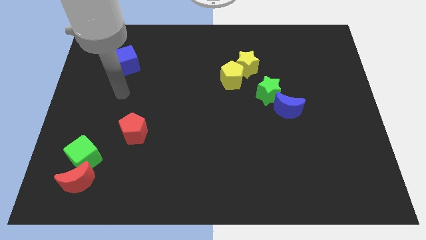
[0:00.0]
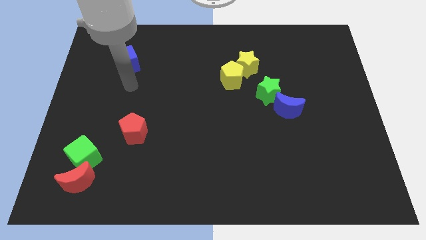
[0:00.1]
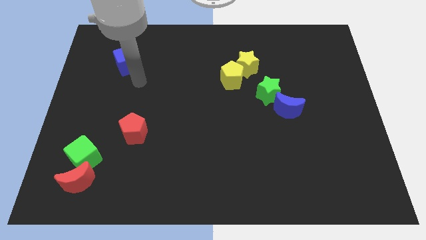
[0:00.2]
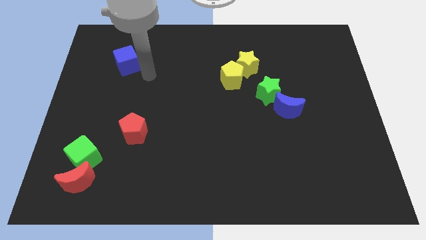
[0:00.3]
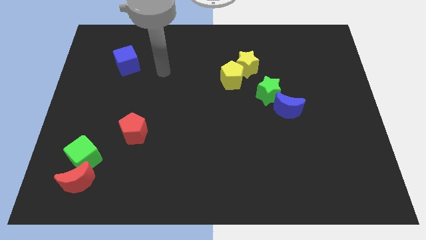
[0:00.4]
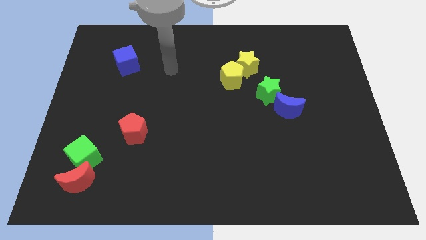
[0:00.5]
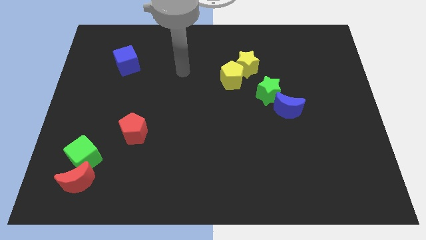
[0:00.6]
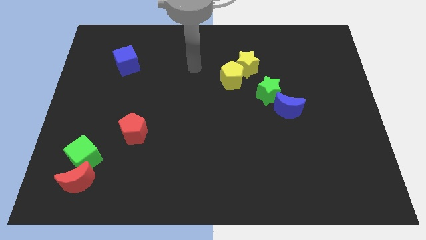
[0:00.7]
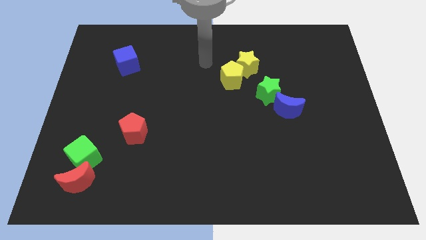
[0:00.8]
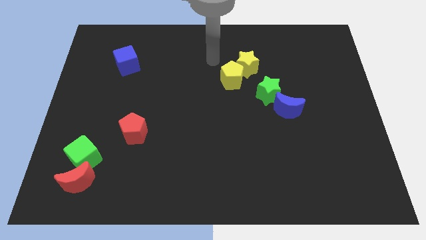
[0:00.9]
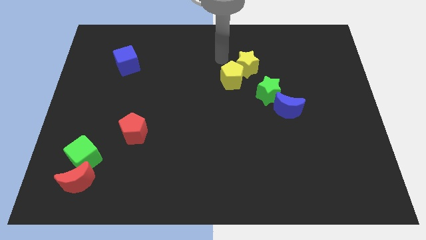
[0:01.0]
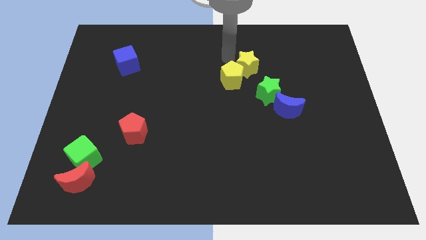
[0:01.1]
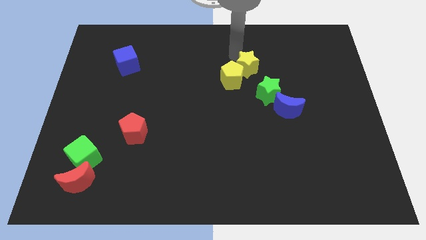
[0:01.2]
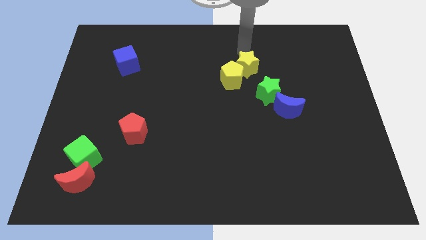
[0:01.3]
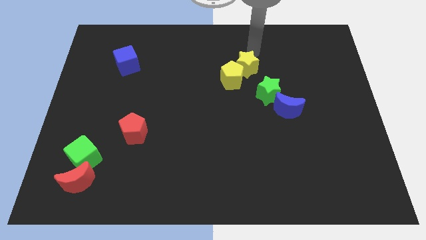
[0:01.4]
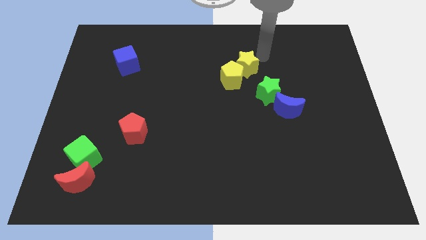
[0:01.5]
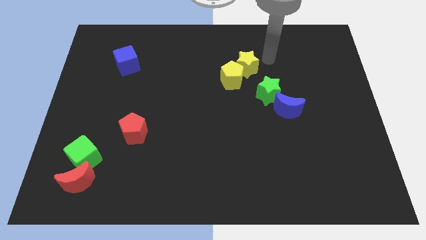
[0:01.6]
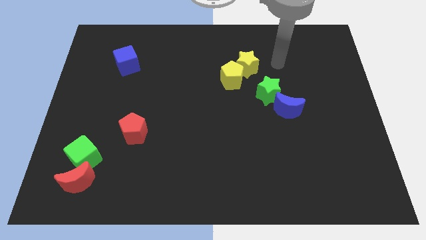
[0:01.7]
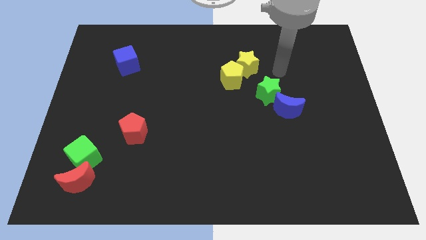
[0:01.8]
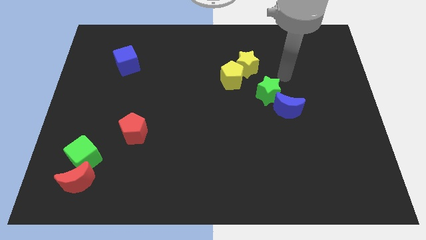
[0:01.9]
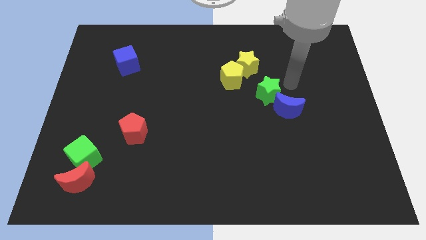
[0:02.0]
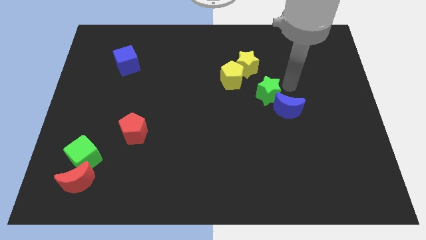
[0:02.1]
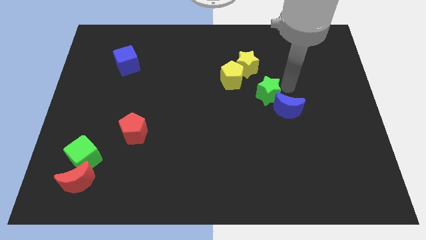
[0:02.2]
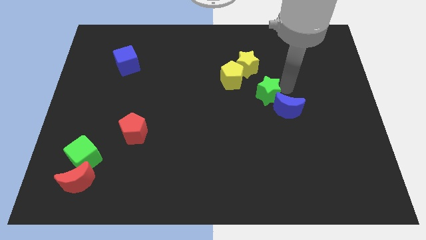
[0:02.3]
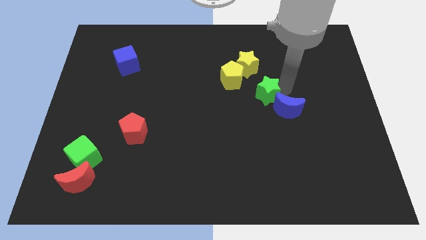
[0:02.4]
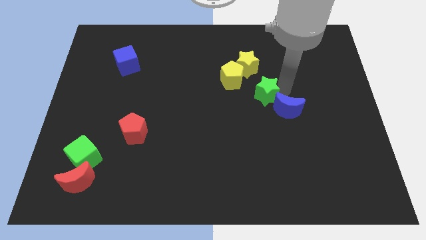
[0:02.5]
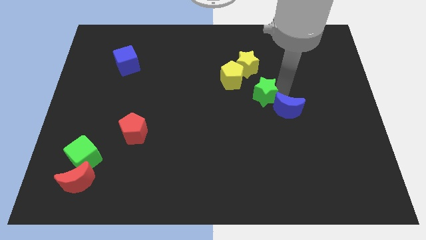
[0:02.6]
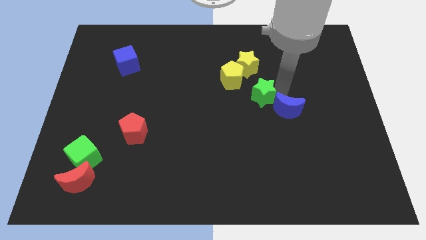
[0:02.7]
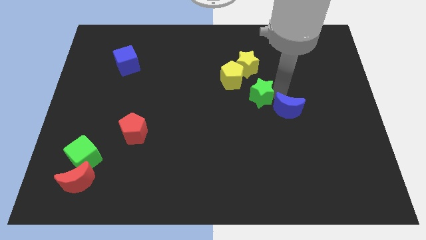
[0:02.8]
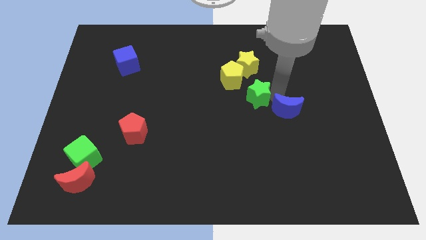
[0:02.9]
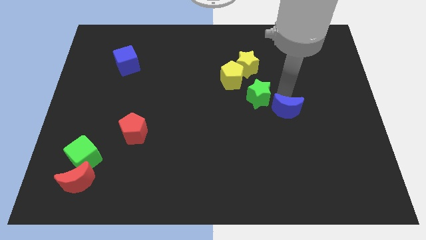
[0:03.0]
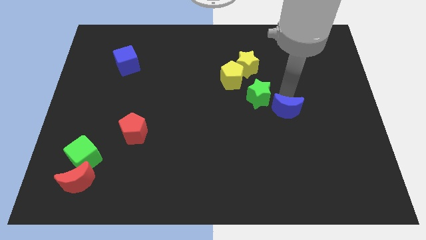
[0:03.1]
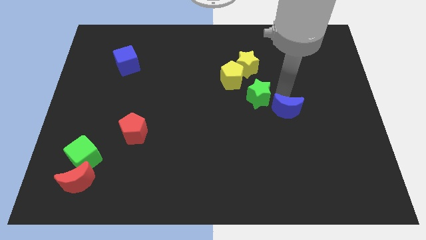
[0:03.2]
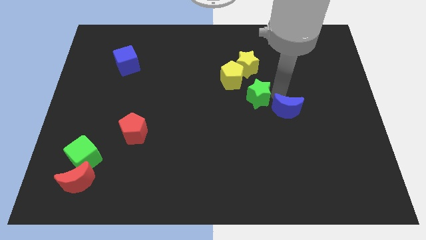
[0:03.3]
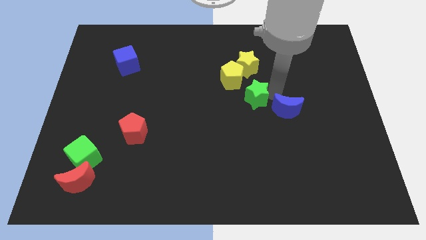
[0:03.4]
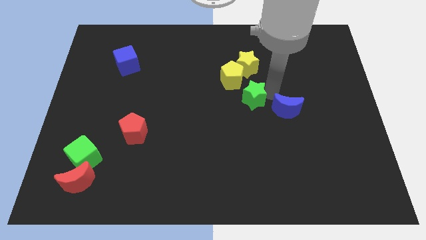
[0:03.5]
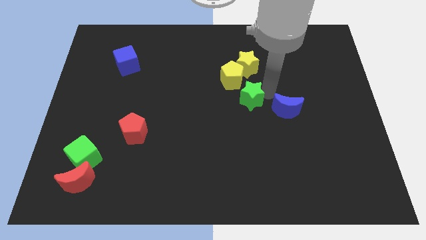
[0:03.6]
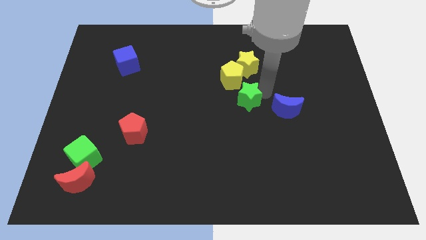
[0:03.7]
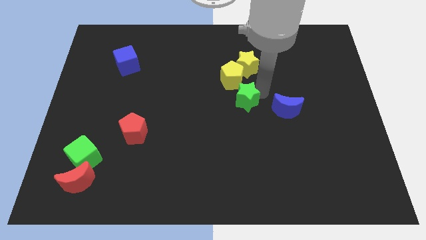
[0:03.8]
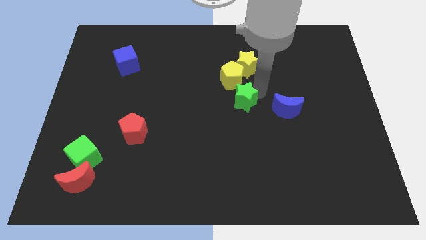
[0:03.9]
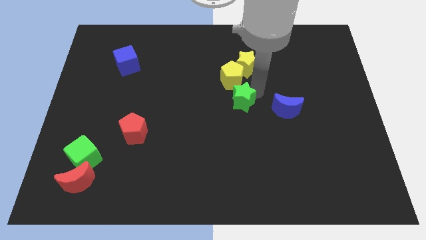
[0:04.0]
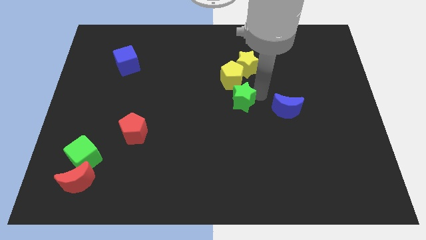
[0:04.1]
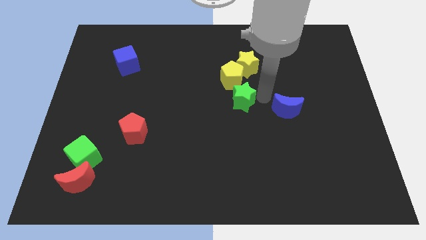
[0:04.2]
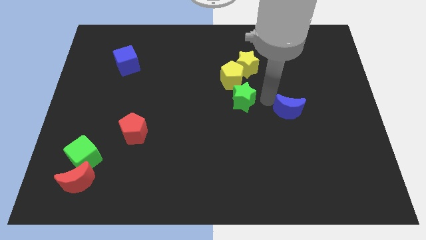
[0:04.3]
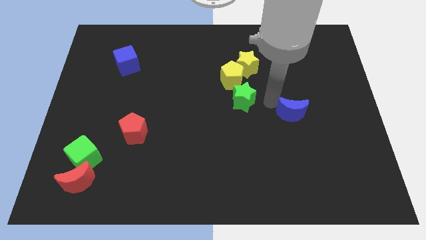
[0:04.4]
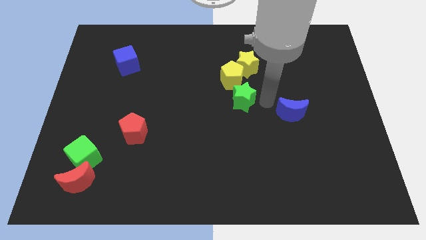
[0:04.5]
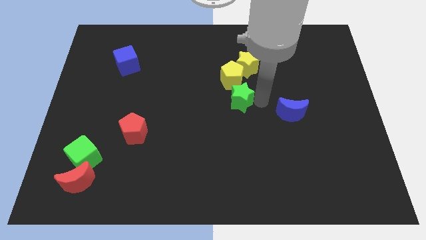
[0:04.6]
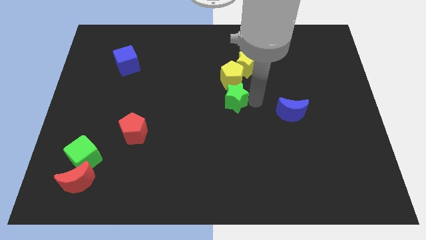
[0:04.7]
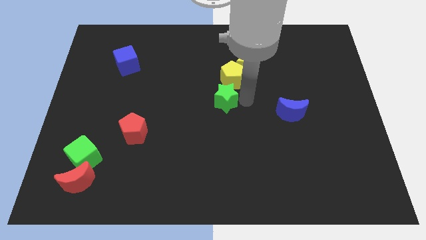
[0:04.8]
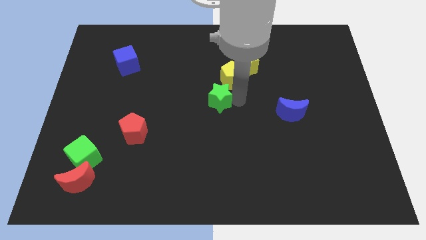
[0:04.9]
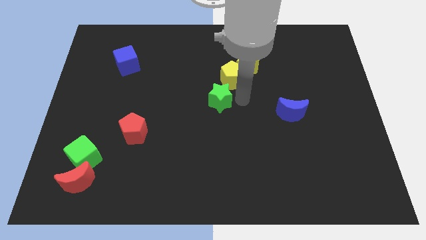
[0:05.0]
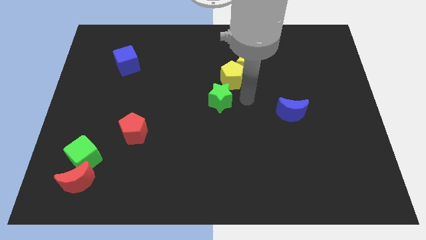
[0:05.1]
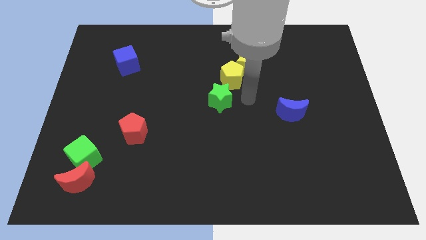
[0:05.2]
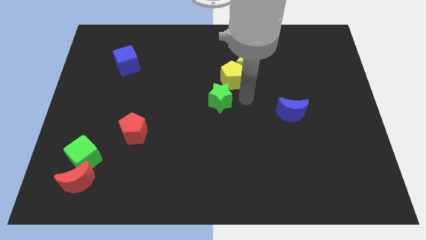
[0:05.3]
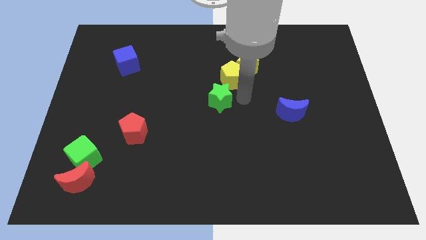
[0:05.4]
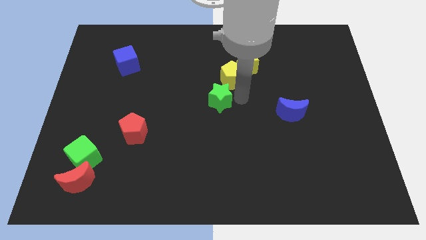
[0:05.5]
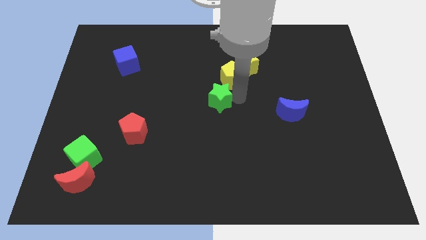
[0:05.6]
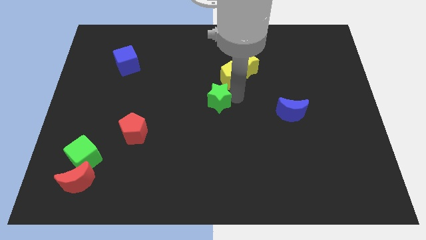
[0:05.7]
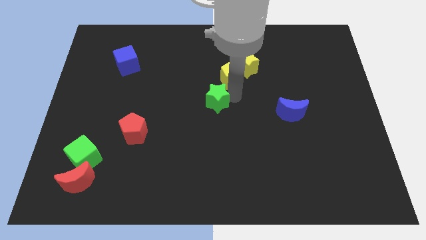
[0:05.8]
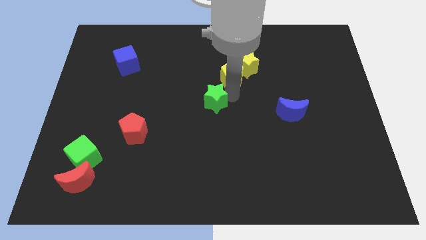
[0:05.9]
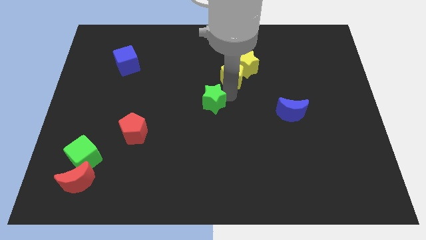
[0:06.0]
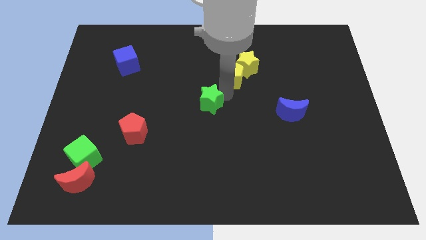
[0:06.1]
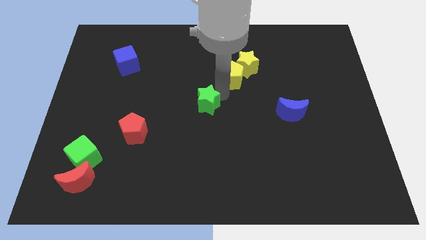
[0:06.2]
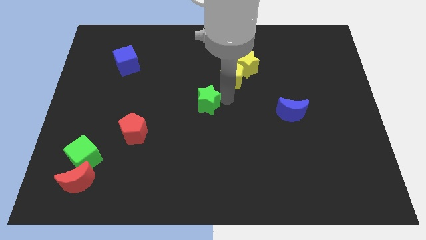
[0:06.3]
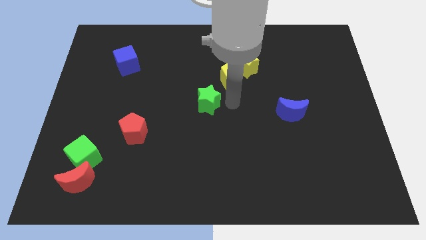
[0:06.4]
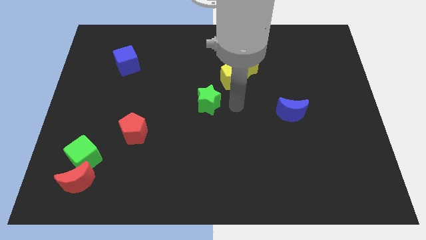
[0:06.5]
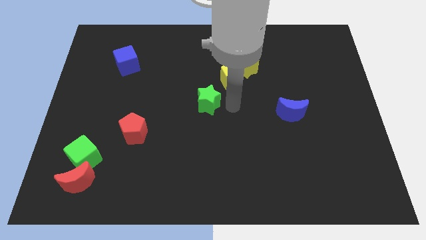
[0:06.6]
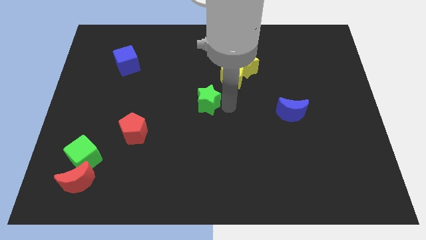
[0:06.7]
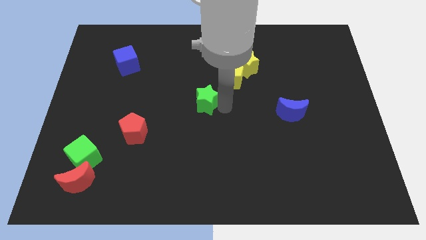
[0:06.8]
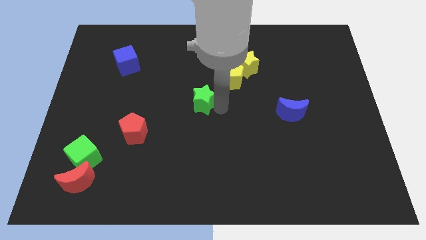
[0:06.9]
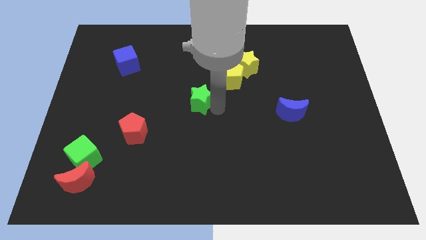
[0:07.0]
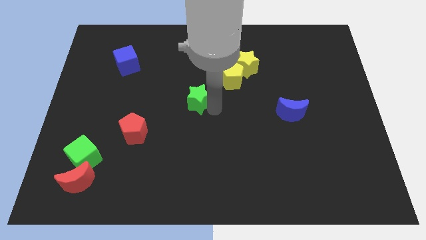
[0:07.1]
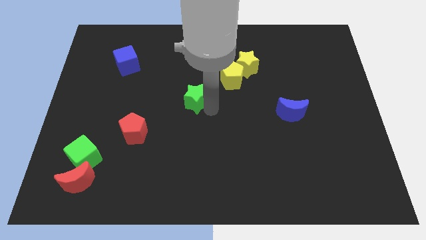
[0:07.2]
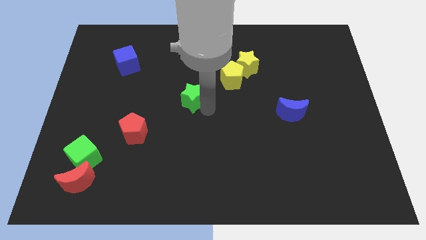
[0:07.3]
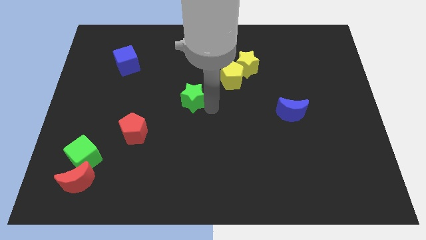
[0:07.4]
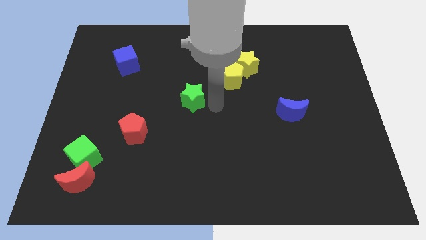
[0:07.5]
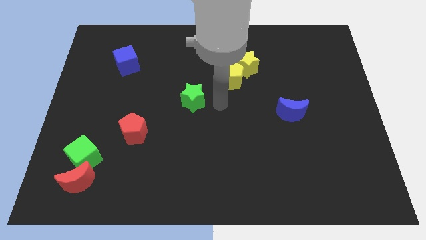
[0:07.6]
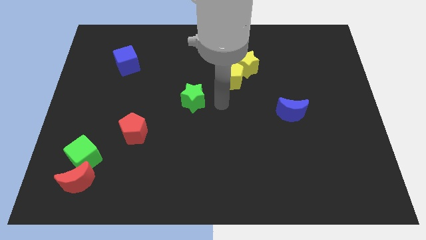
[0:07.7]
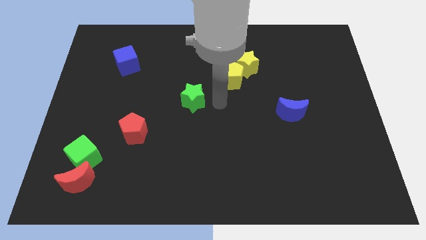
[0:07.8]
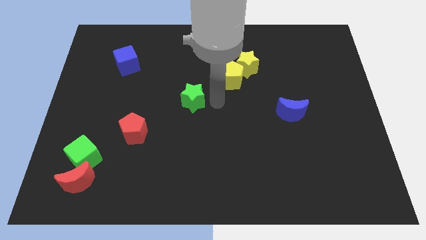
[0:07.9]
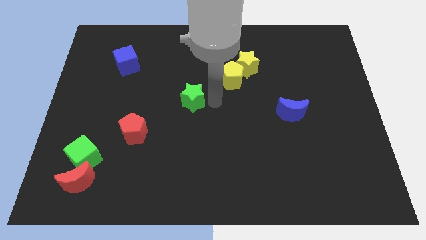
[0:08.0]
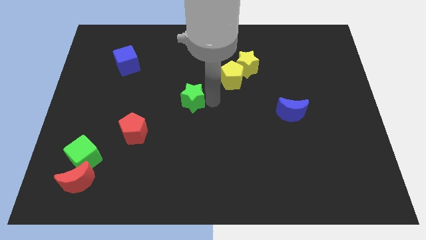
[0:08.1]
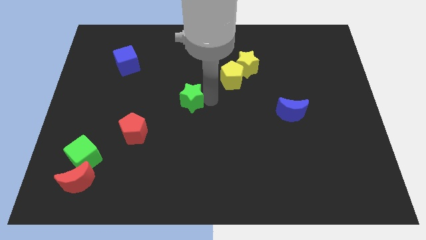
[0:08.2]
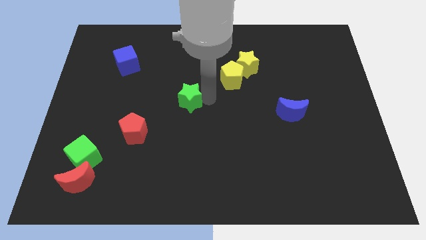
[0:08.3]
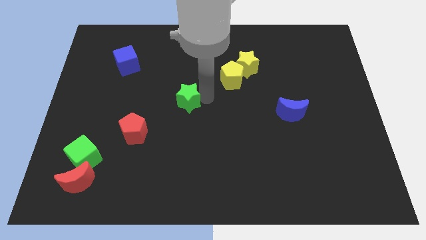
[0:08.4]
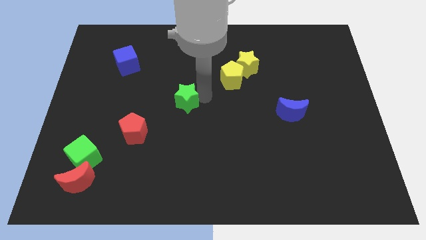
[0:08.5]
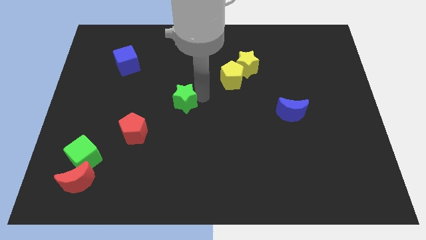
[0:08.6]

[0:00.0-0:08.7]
push the green star to the left
